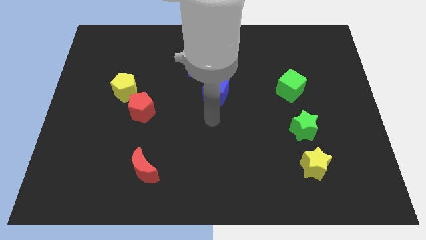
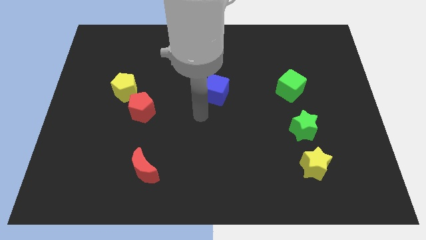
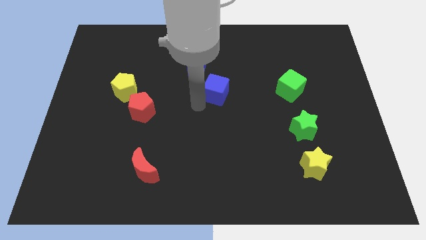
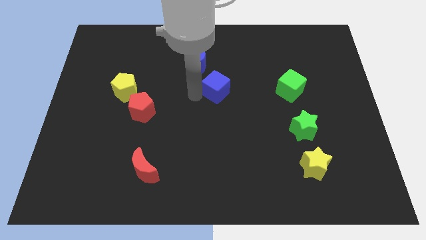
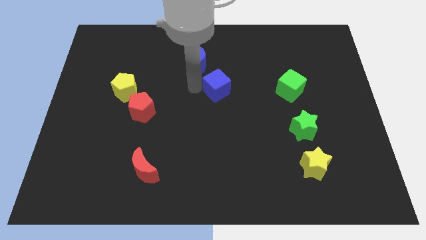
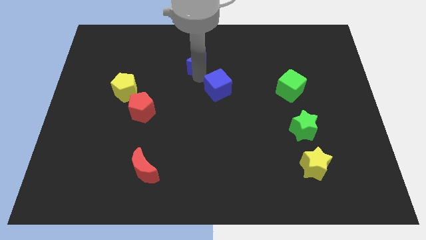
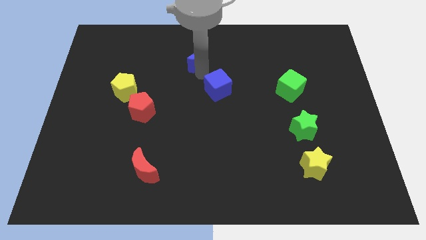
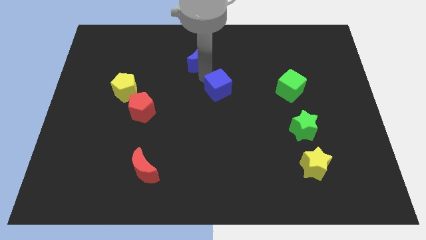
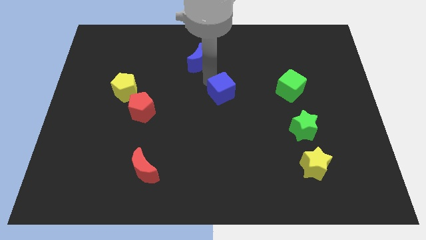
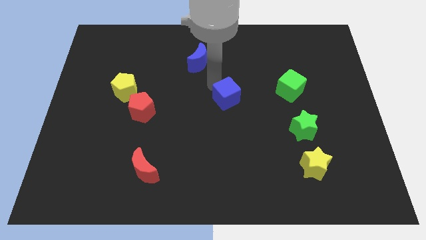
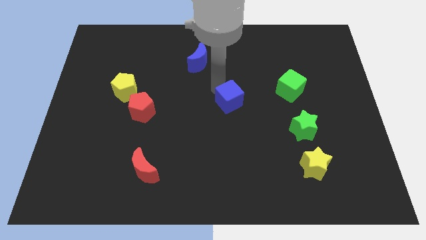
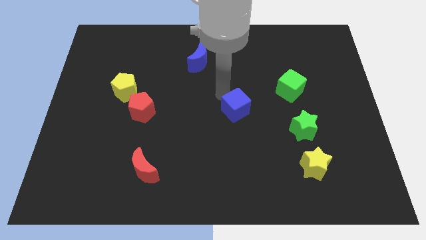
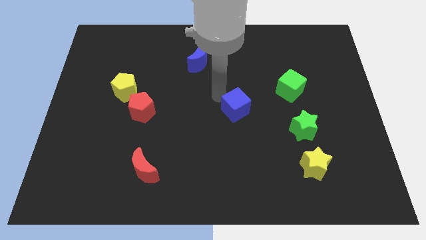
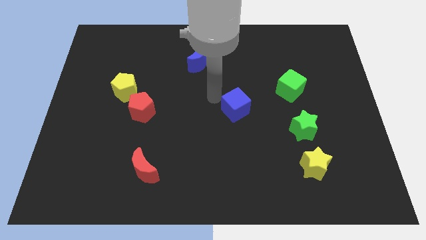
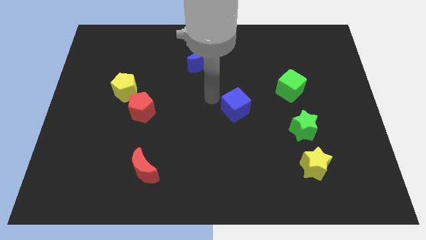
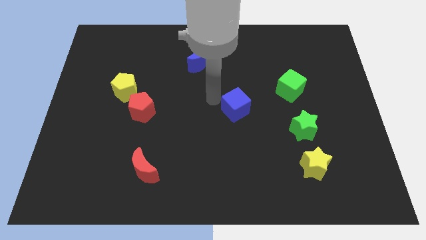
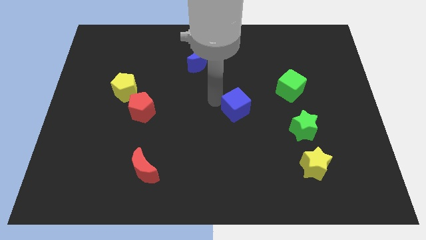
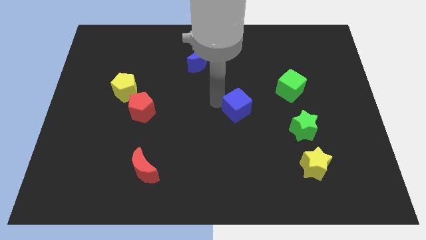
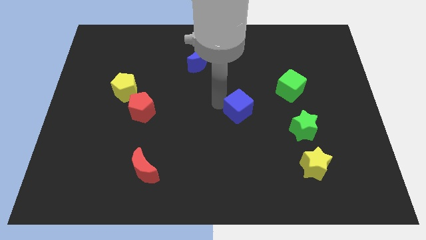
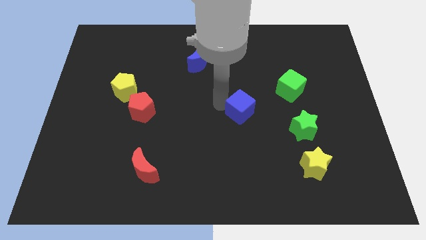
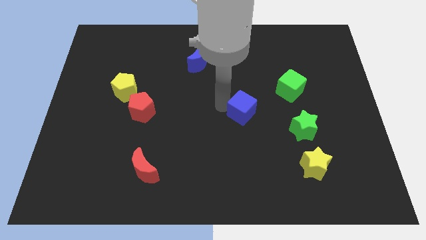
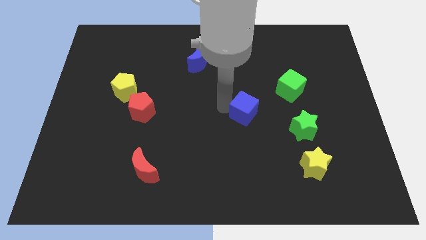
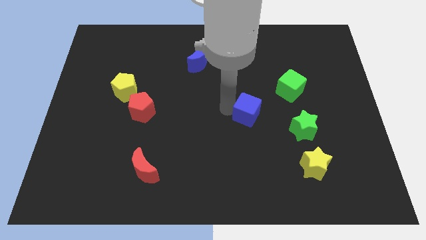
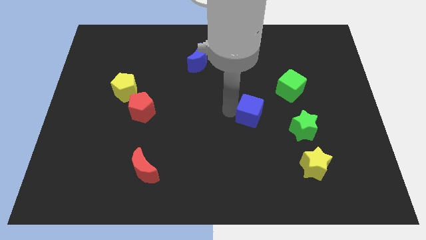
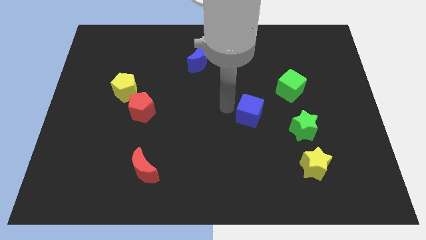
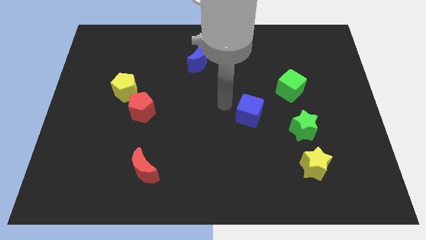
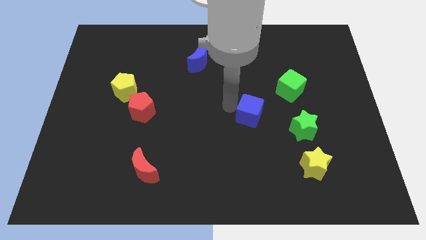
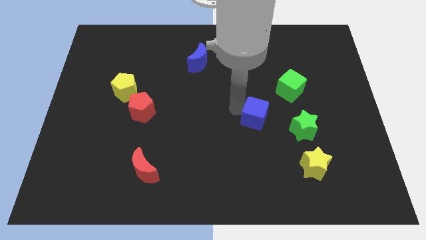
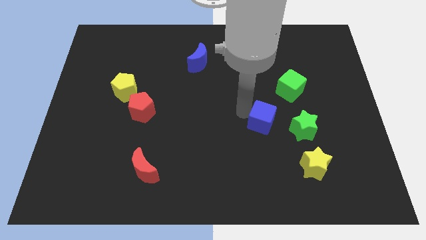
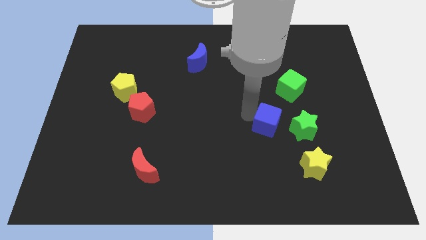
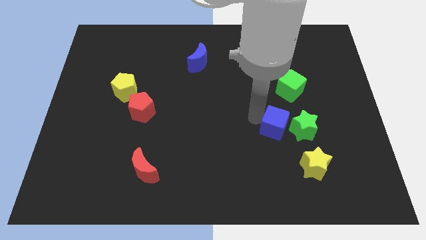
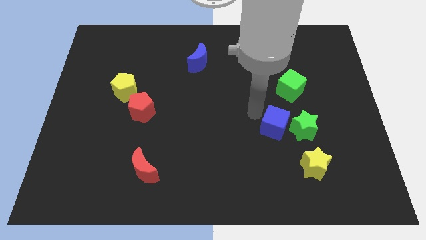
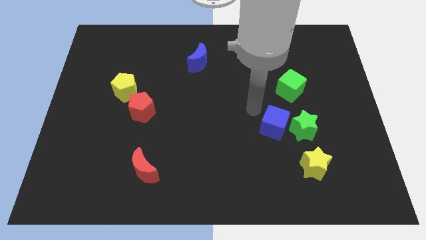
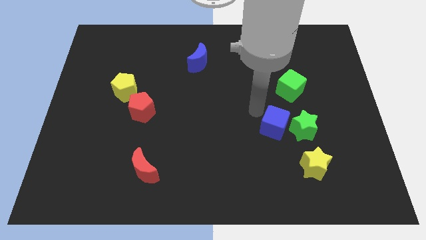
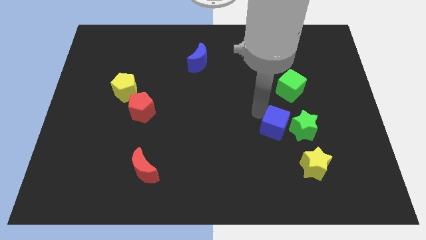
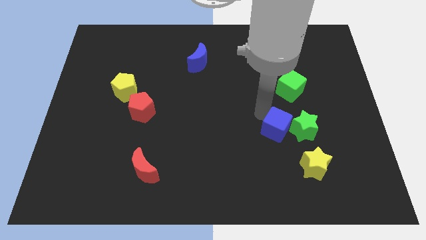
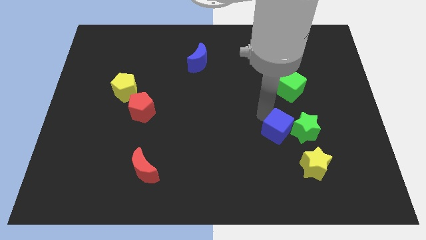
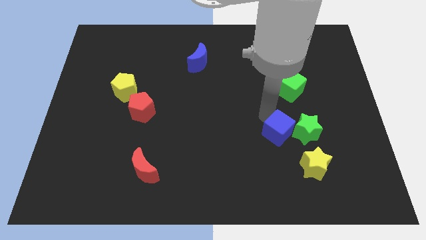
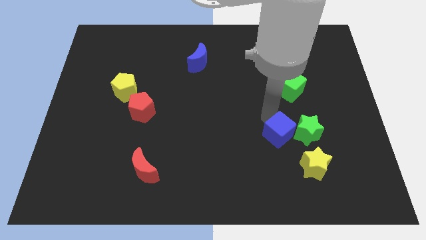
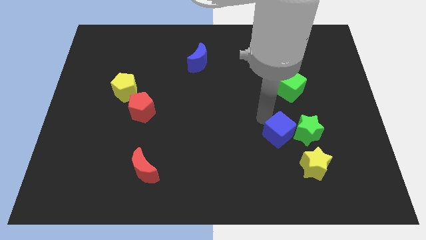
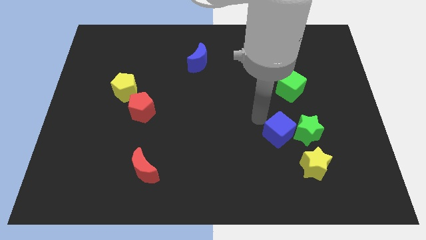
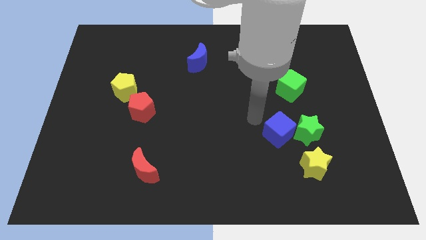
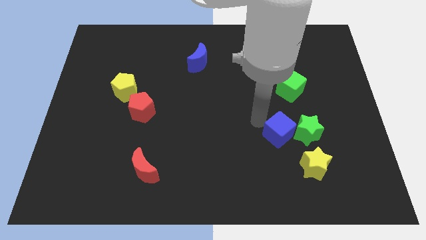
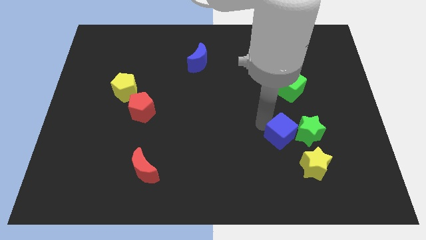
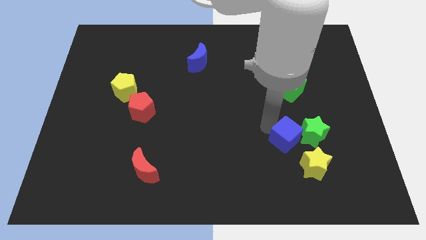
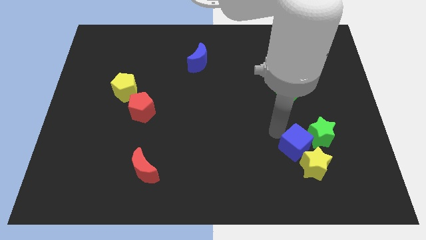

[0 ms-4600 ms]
move the blue cube towards the yellow star

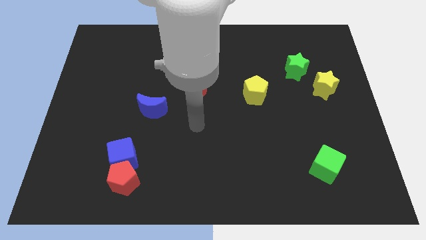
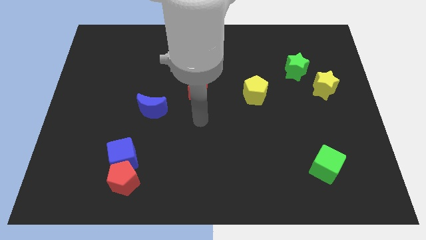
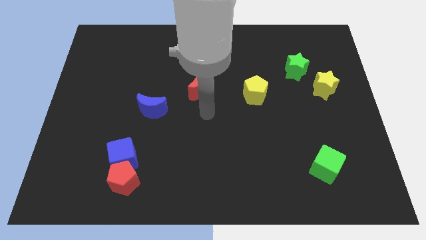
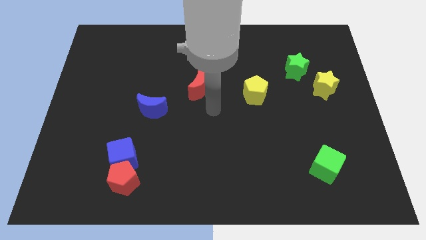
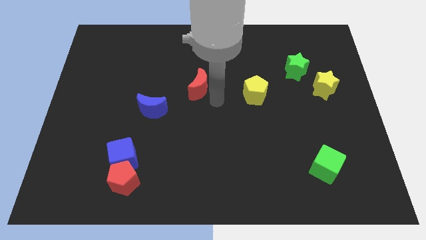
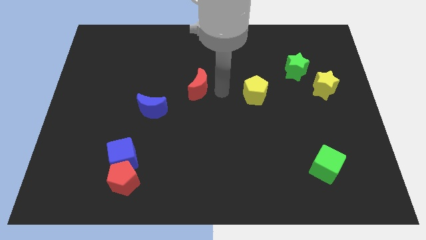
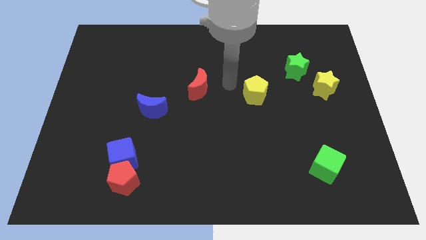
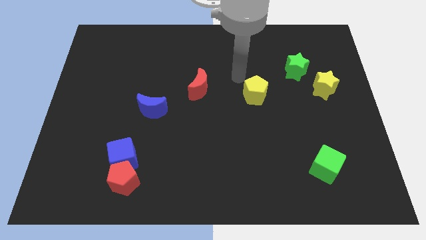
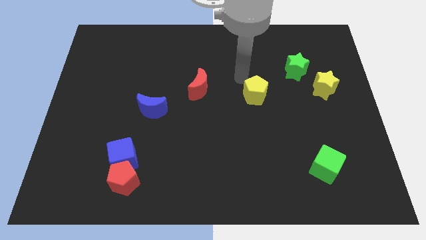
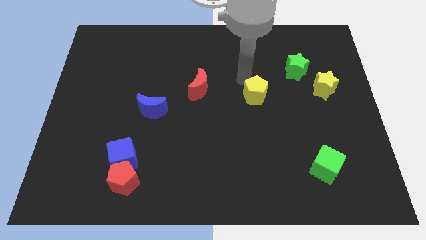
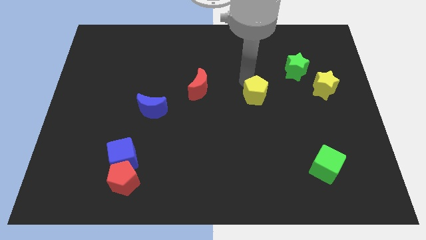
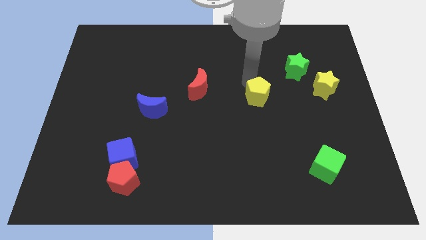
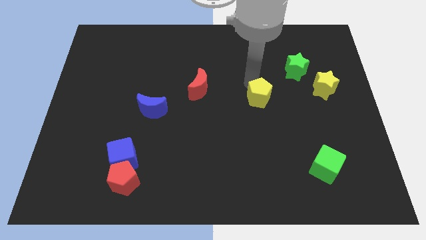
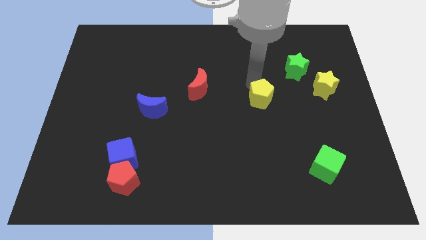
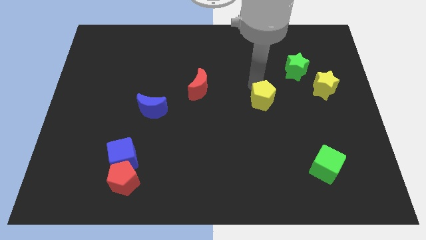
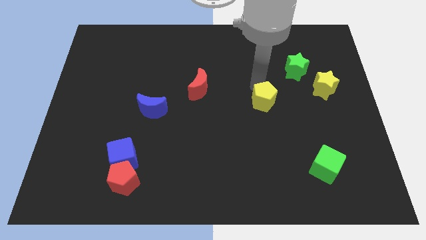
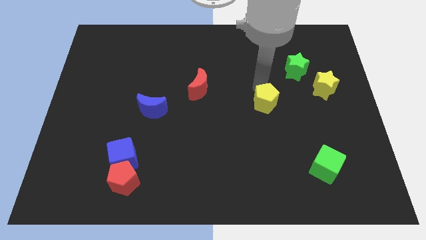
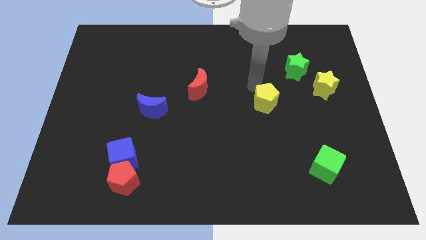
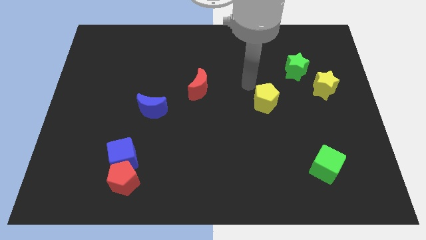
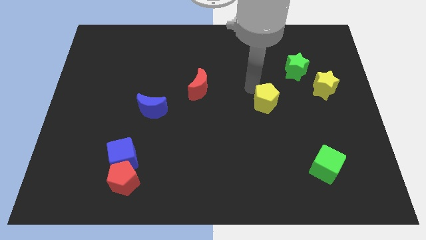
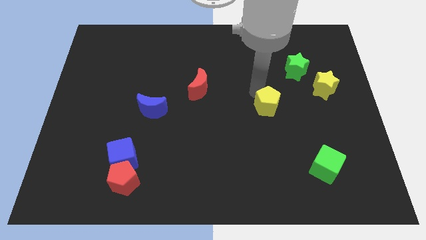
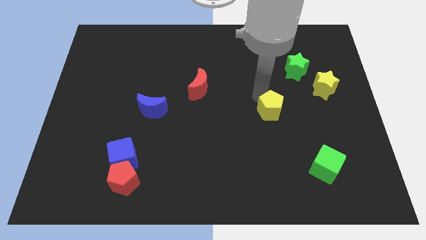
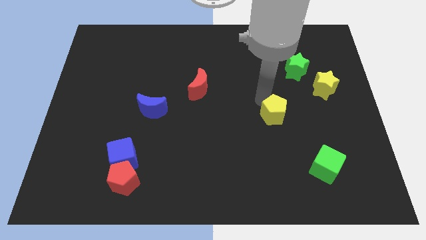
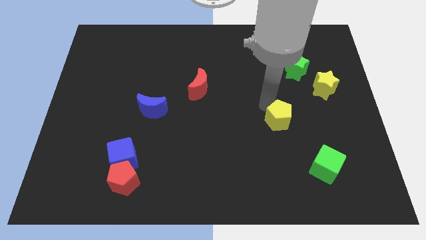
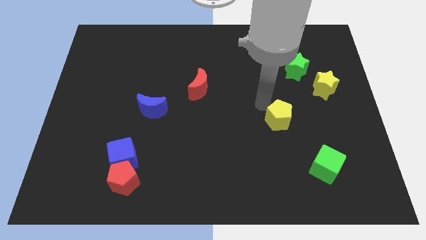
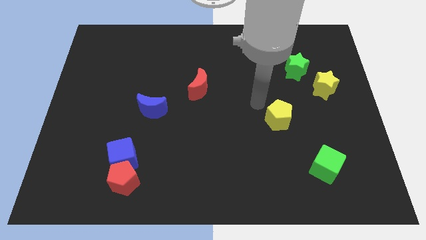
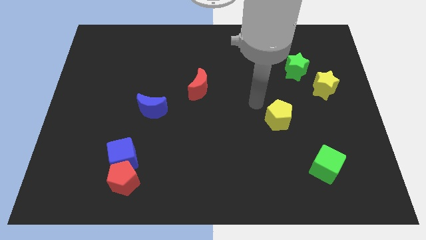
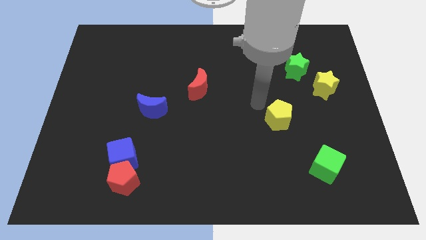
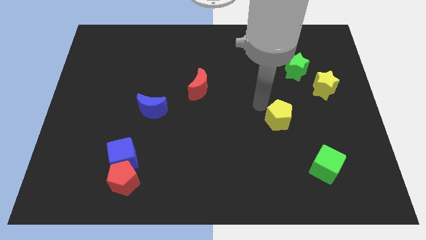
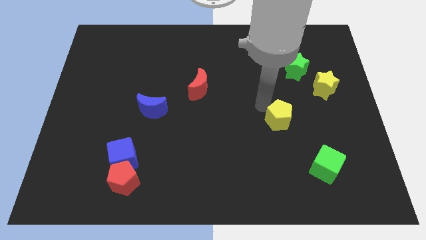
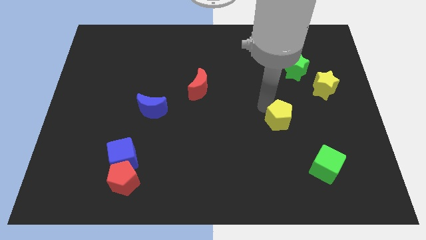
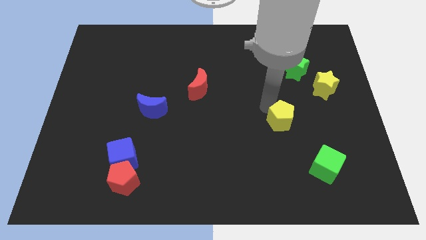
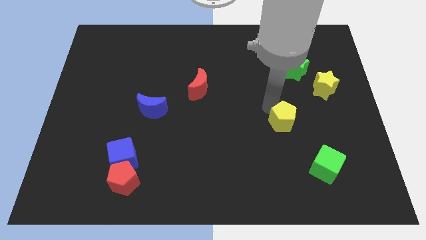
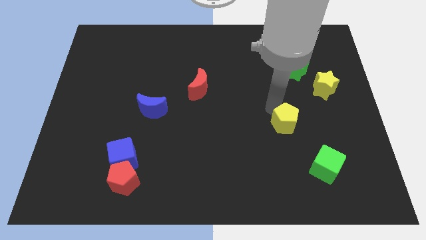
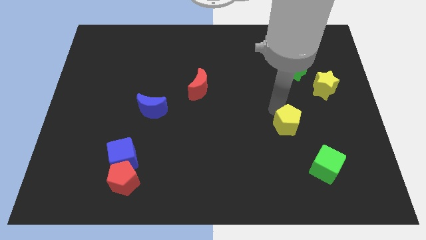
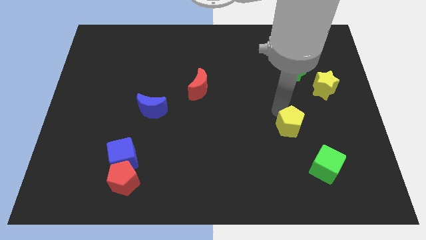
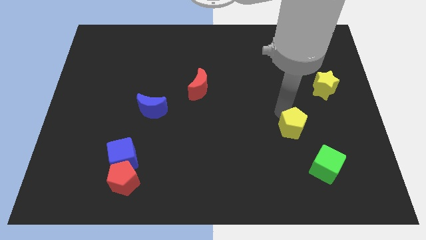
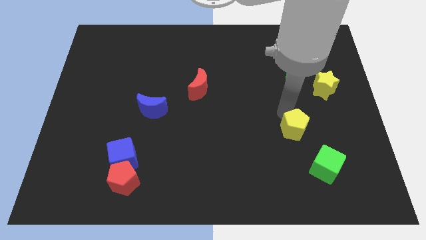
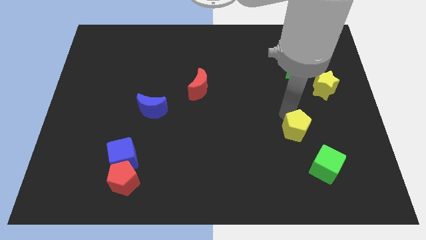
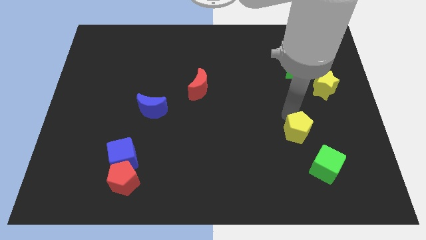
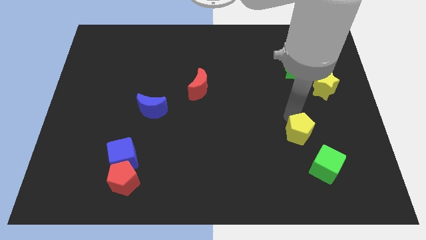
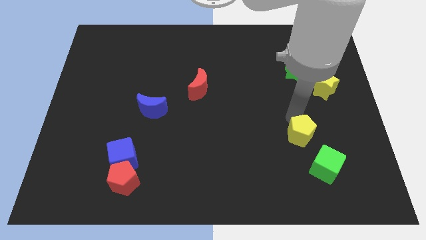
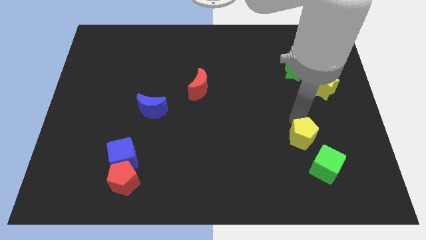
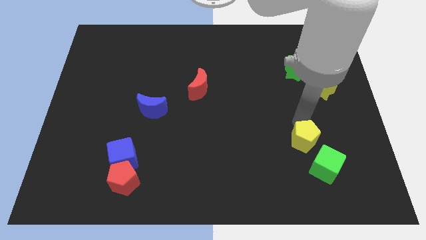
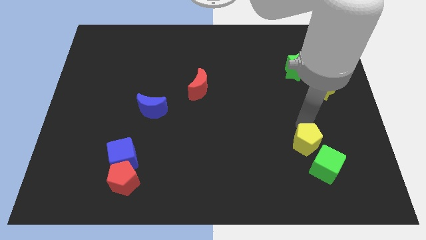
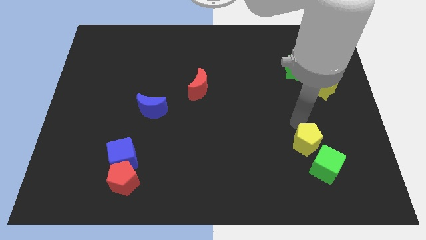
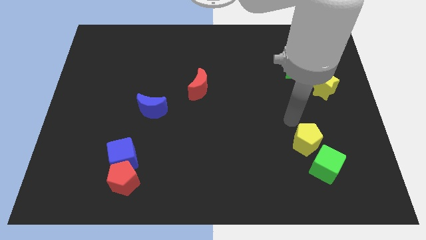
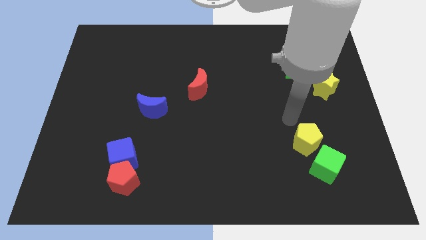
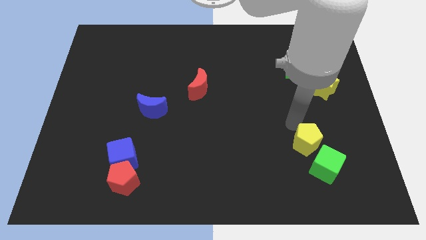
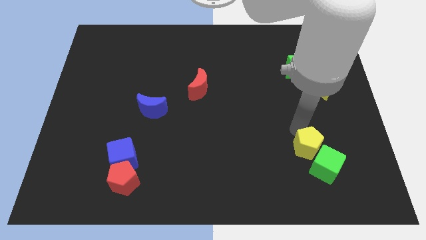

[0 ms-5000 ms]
move the yellow pentagon next to the green cube
